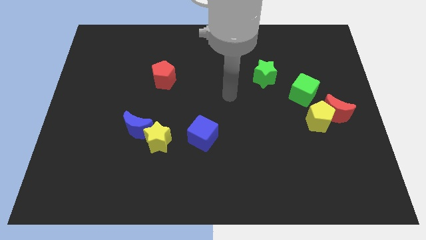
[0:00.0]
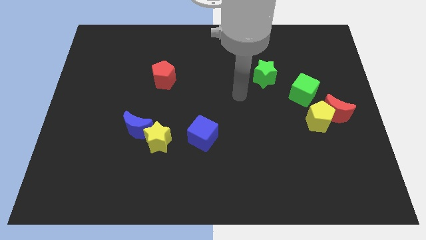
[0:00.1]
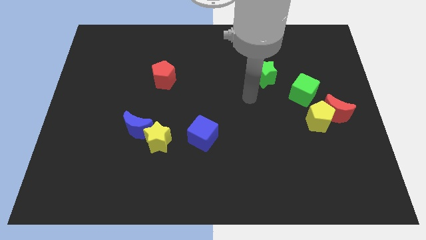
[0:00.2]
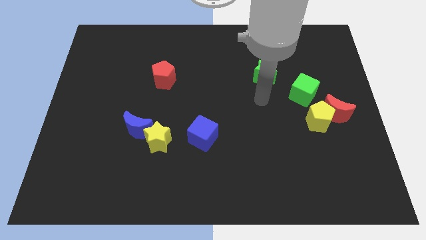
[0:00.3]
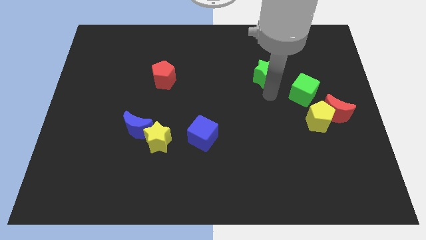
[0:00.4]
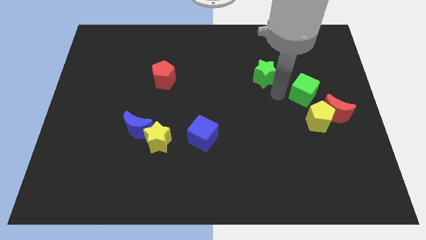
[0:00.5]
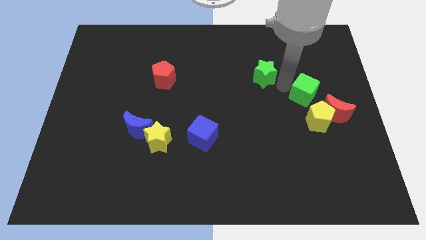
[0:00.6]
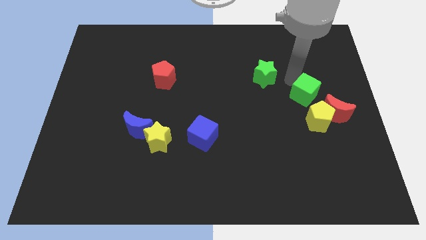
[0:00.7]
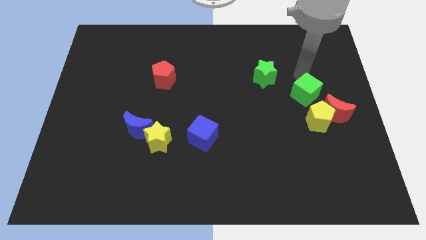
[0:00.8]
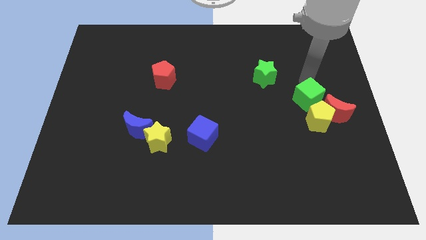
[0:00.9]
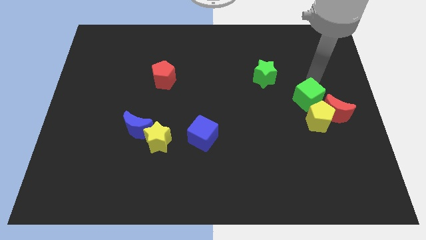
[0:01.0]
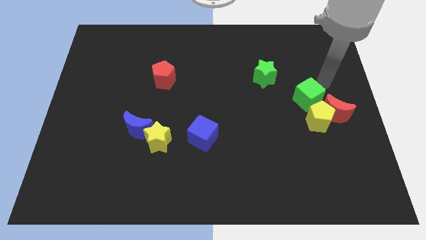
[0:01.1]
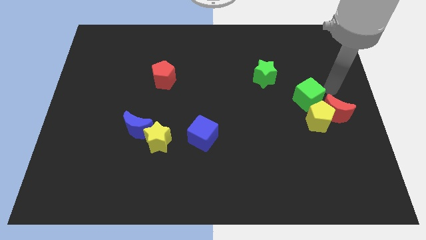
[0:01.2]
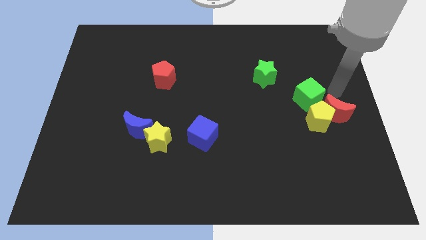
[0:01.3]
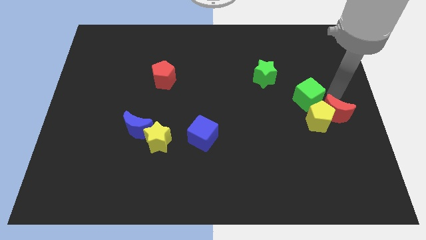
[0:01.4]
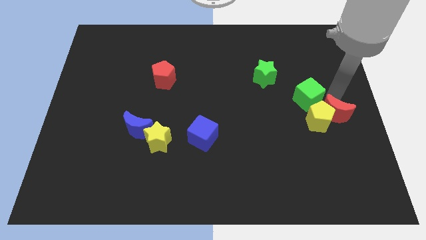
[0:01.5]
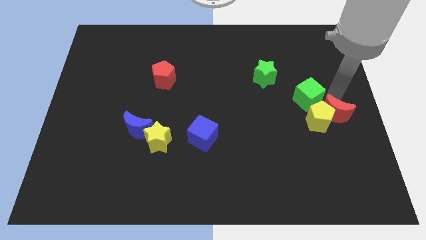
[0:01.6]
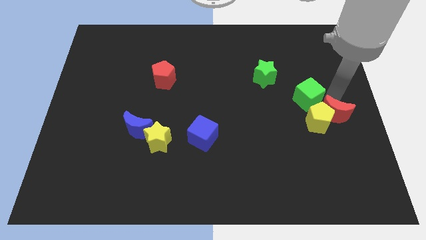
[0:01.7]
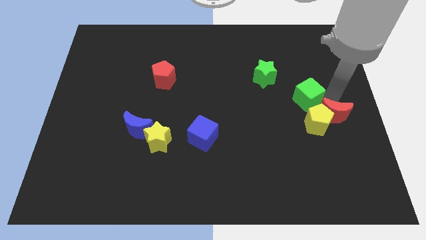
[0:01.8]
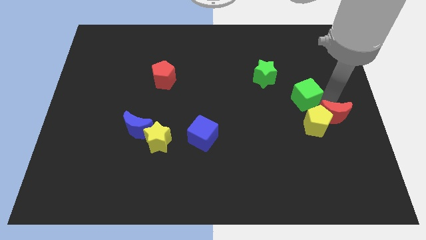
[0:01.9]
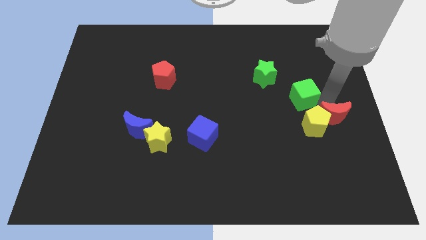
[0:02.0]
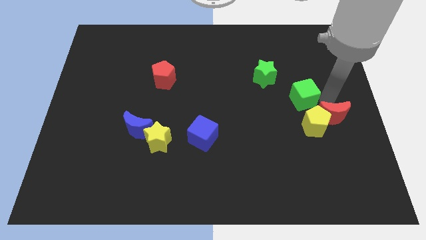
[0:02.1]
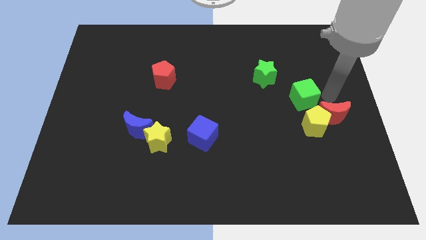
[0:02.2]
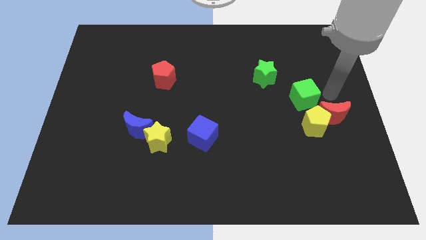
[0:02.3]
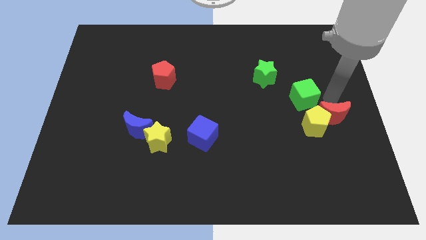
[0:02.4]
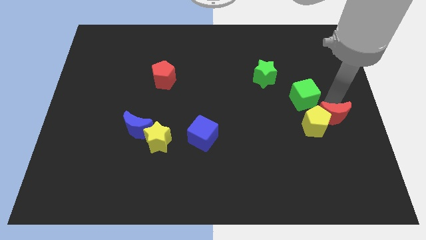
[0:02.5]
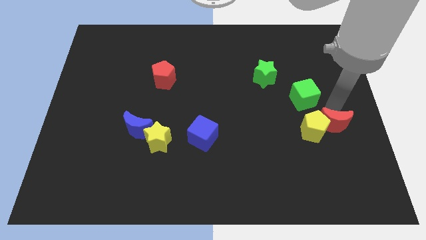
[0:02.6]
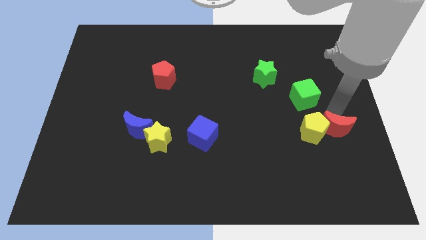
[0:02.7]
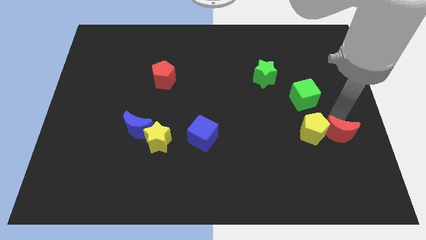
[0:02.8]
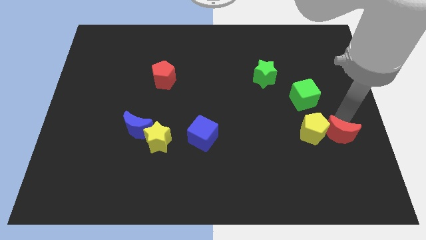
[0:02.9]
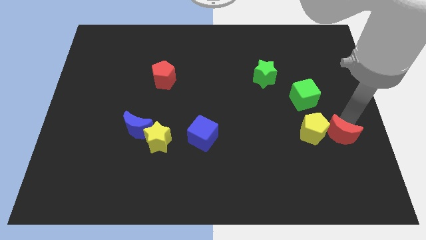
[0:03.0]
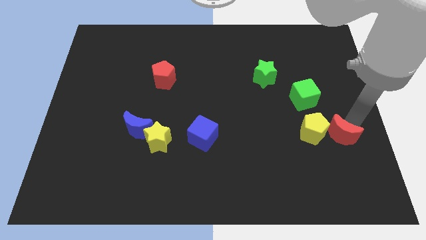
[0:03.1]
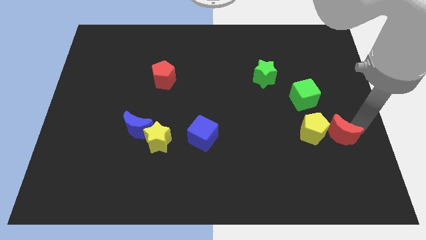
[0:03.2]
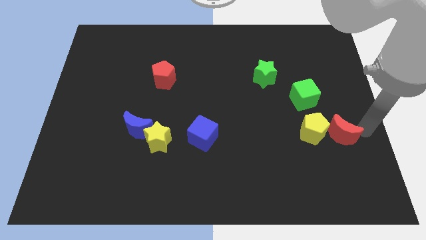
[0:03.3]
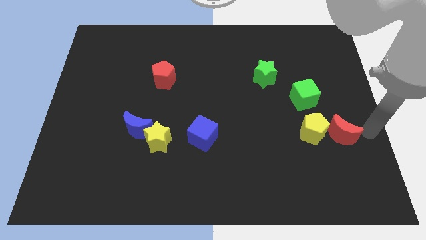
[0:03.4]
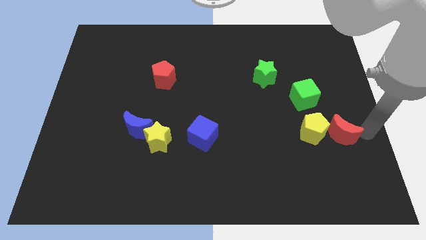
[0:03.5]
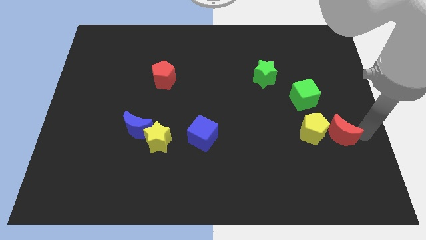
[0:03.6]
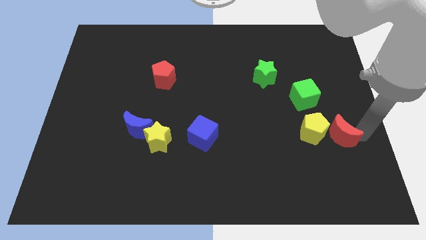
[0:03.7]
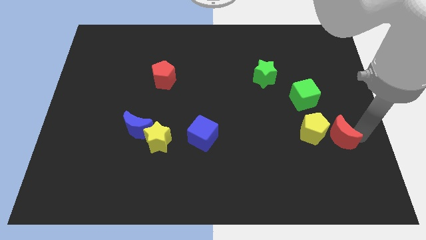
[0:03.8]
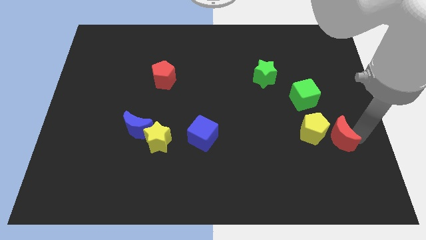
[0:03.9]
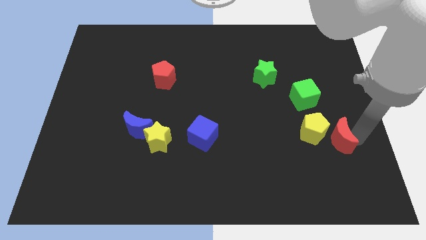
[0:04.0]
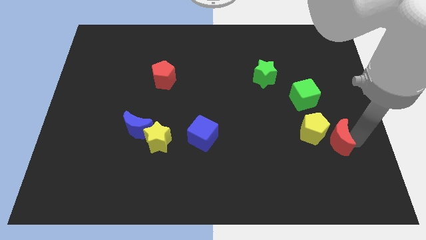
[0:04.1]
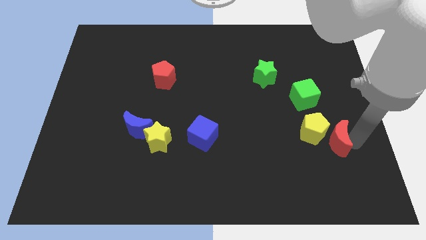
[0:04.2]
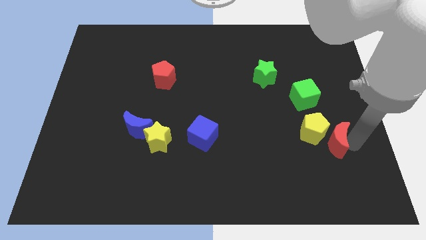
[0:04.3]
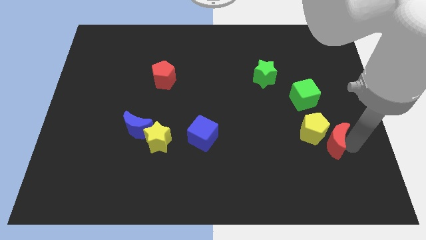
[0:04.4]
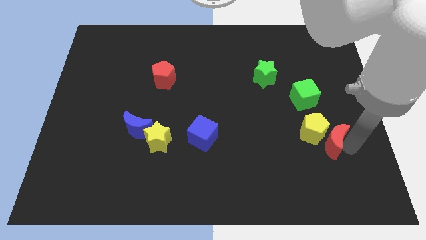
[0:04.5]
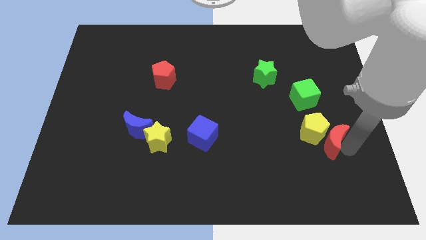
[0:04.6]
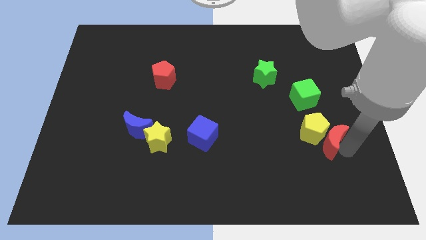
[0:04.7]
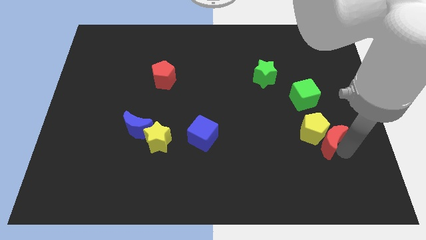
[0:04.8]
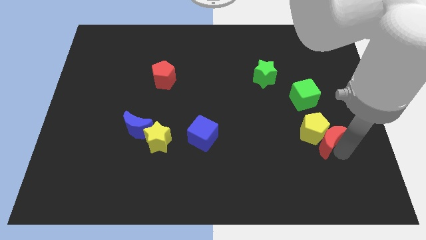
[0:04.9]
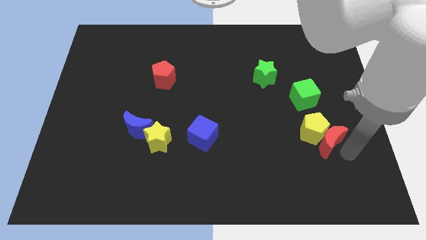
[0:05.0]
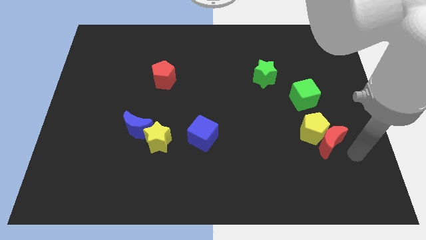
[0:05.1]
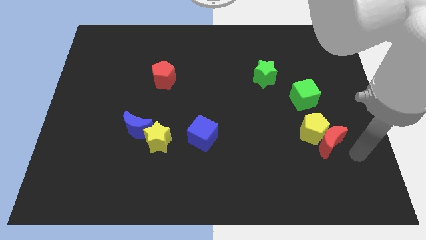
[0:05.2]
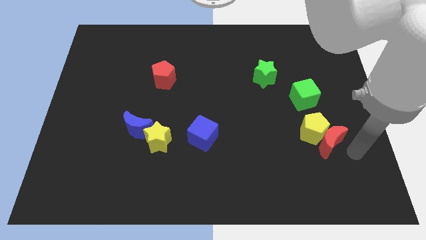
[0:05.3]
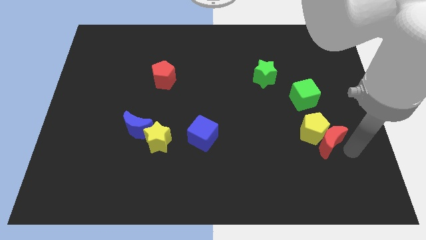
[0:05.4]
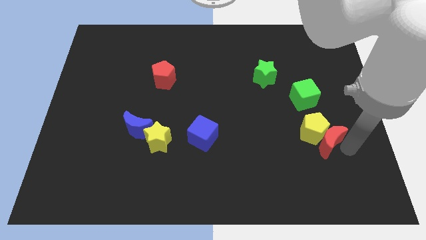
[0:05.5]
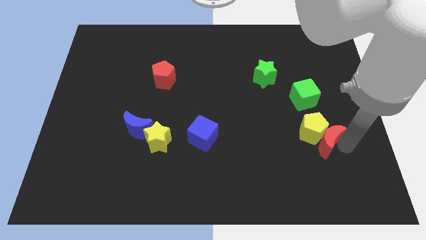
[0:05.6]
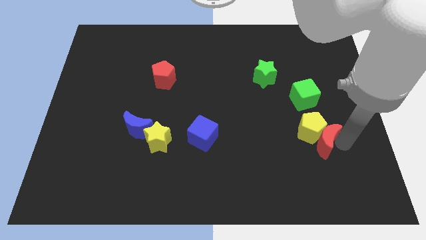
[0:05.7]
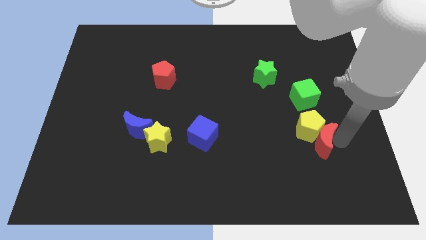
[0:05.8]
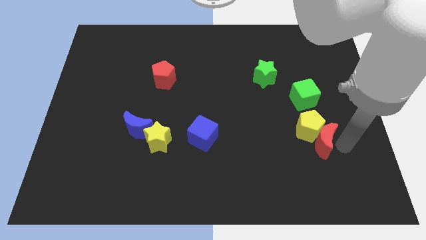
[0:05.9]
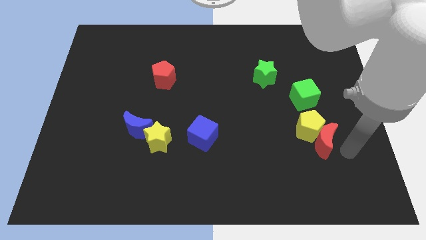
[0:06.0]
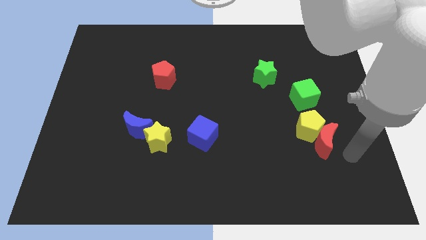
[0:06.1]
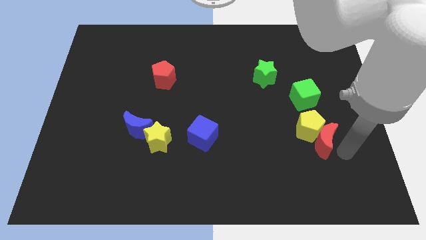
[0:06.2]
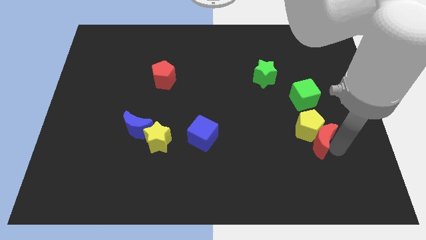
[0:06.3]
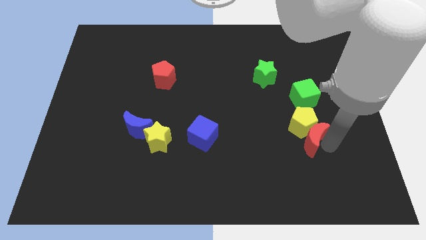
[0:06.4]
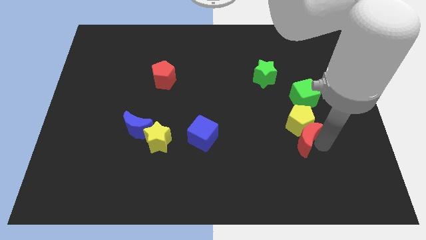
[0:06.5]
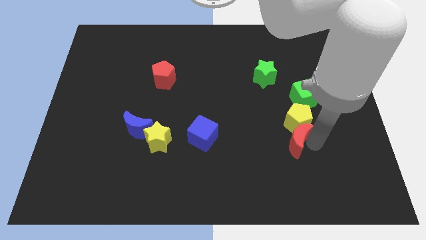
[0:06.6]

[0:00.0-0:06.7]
slightly slide the red moon left

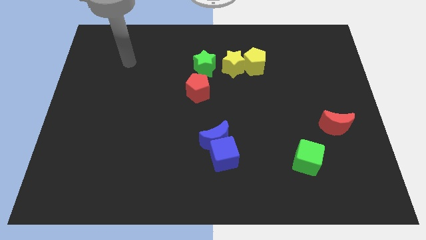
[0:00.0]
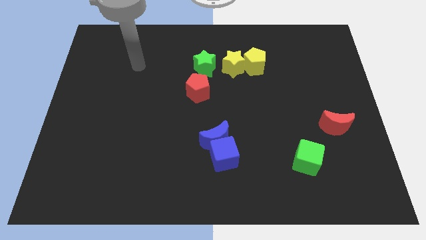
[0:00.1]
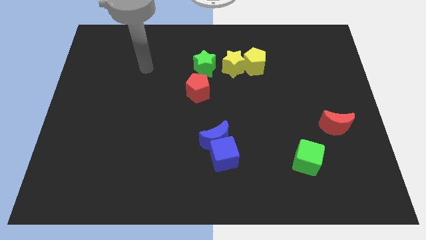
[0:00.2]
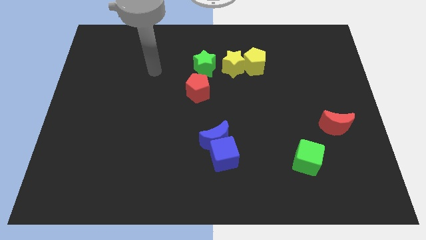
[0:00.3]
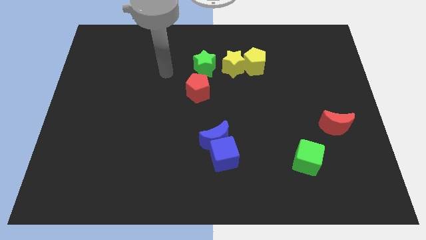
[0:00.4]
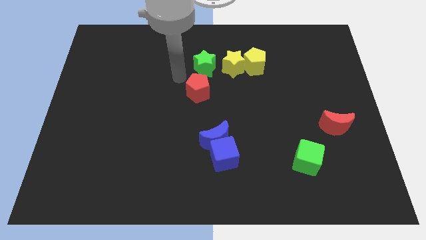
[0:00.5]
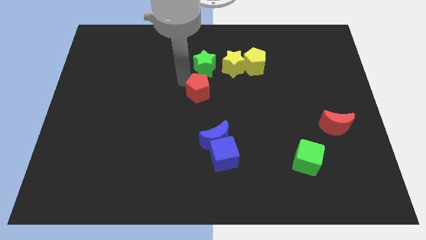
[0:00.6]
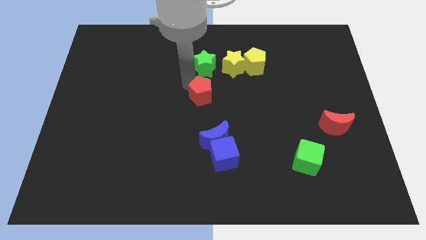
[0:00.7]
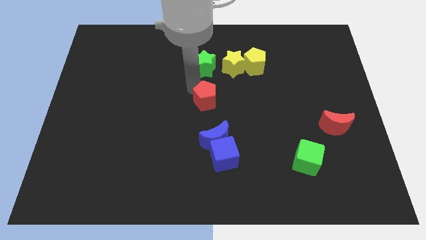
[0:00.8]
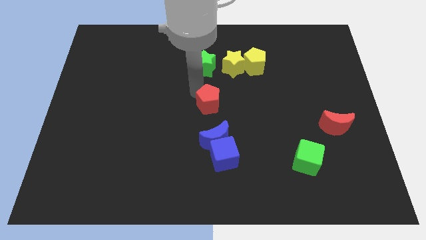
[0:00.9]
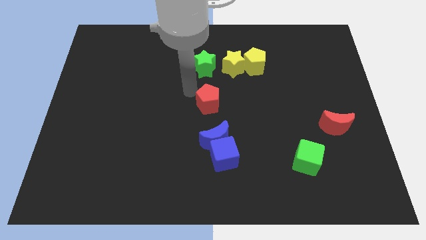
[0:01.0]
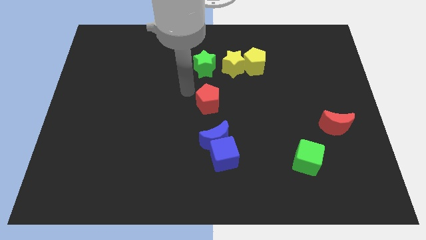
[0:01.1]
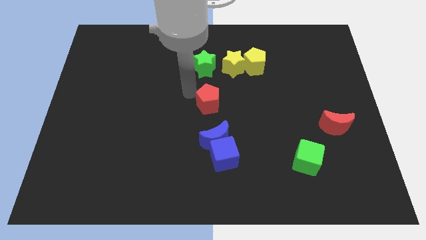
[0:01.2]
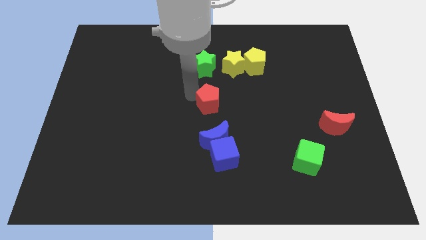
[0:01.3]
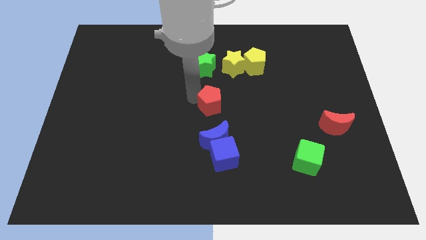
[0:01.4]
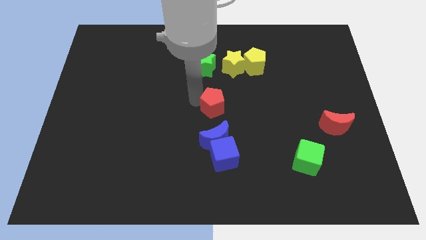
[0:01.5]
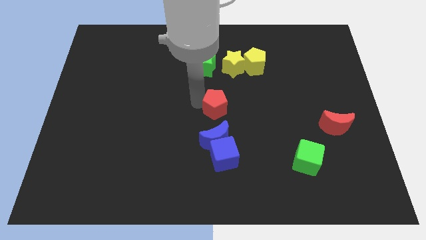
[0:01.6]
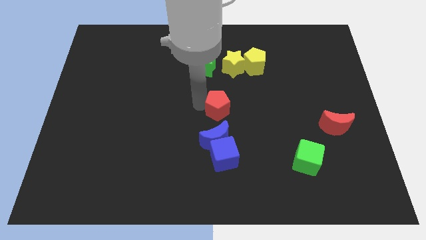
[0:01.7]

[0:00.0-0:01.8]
slightly push the red pentagon downwards and then right
